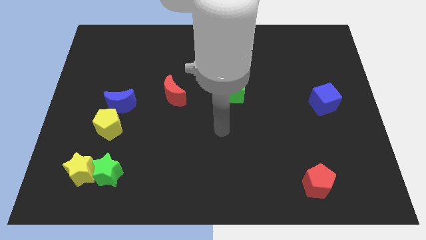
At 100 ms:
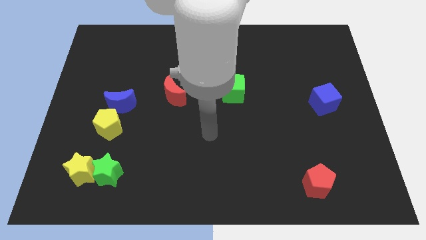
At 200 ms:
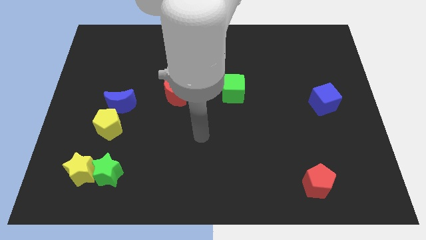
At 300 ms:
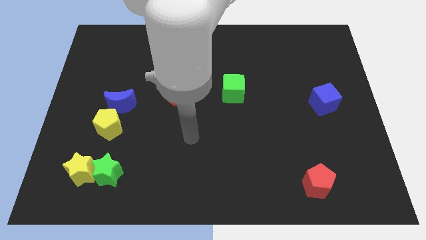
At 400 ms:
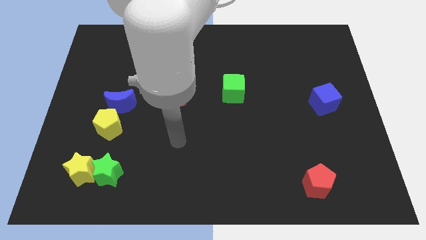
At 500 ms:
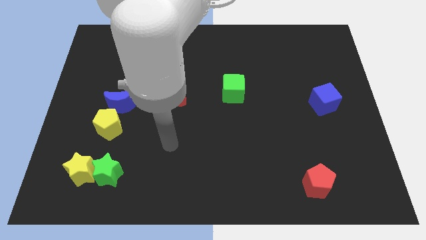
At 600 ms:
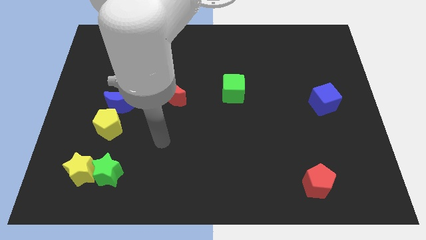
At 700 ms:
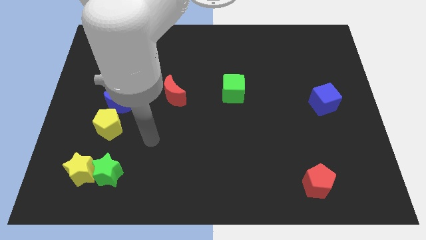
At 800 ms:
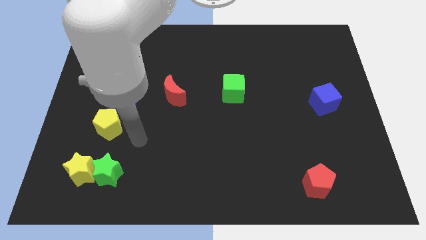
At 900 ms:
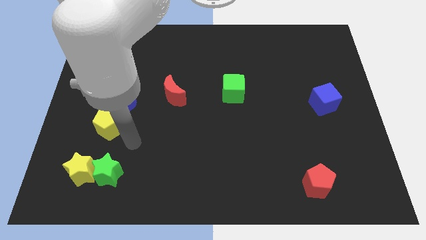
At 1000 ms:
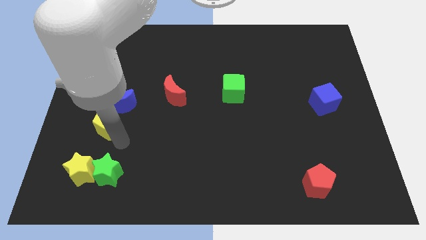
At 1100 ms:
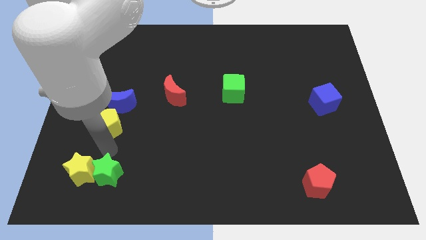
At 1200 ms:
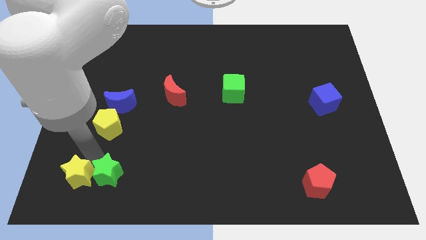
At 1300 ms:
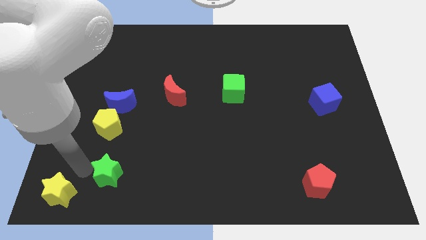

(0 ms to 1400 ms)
pull the green star apart from the yellow star

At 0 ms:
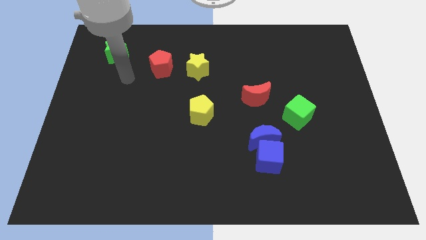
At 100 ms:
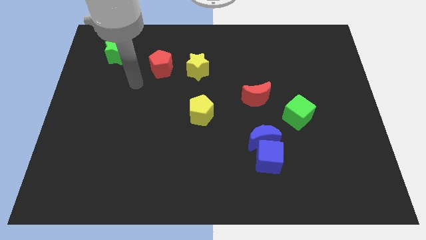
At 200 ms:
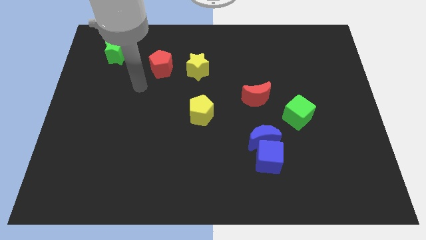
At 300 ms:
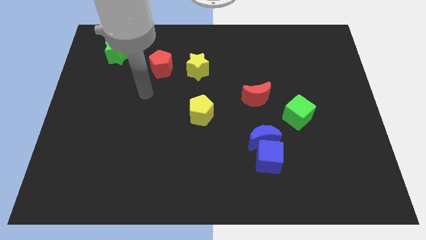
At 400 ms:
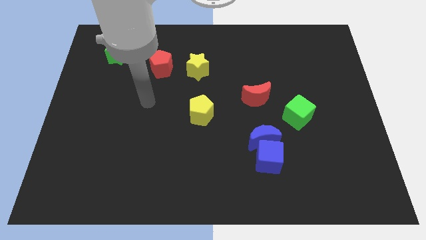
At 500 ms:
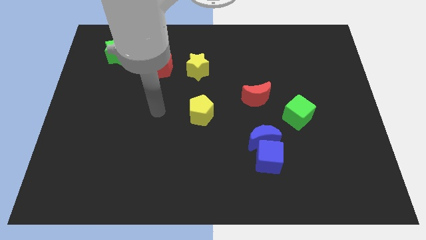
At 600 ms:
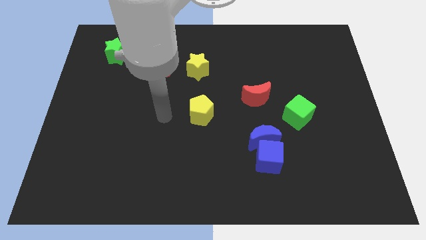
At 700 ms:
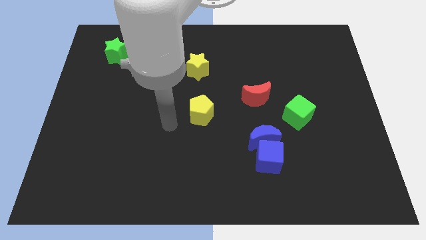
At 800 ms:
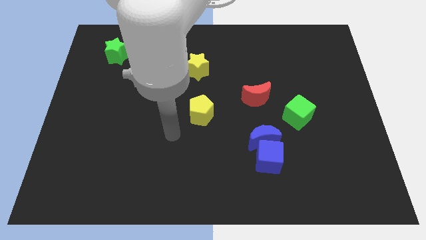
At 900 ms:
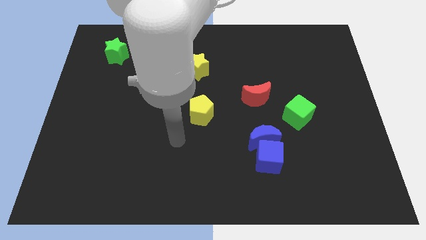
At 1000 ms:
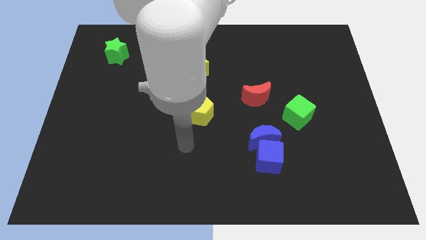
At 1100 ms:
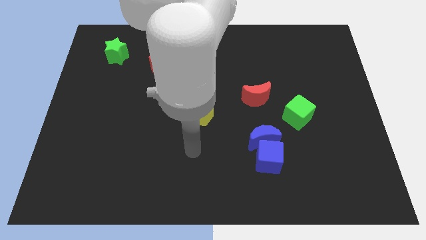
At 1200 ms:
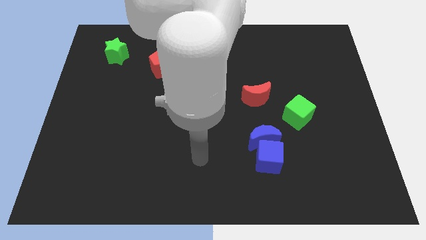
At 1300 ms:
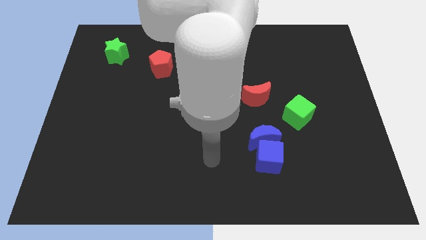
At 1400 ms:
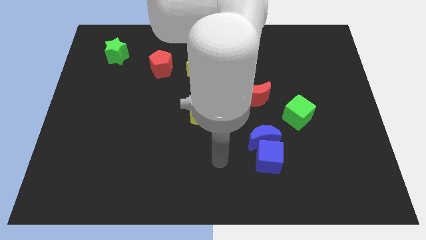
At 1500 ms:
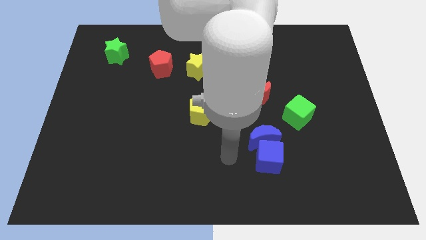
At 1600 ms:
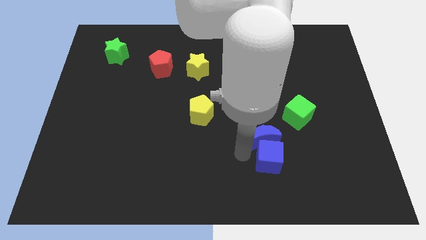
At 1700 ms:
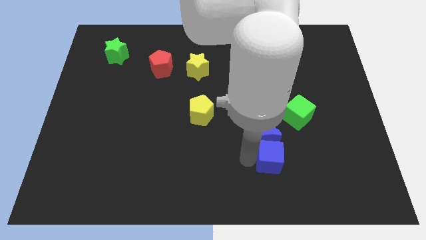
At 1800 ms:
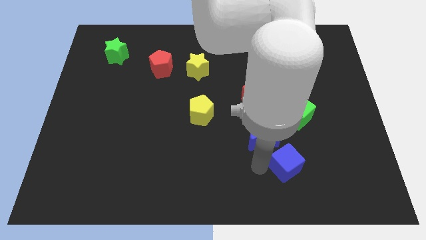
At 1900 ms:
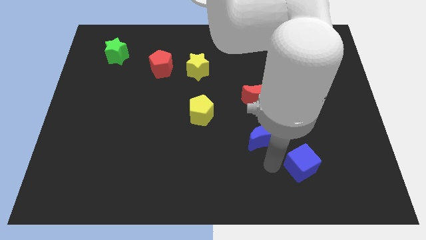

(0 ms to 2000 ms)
move the blue moon away from the blue cube

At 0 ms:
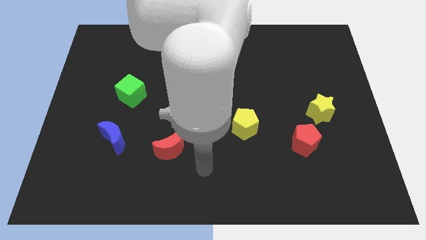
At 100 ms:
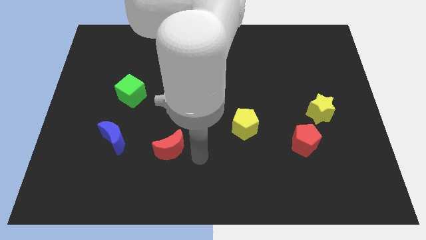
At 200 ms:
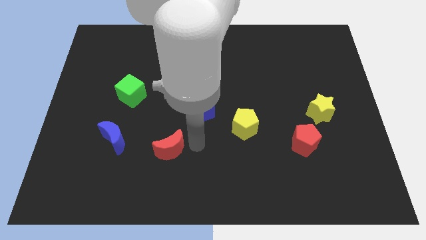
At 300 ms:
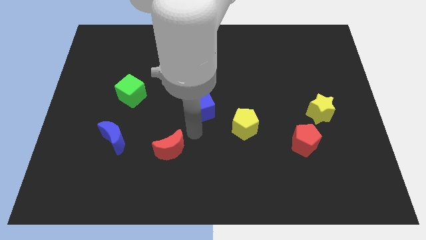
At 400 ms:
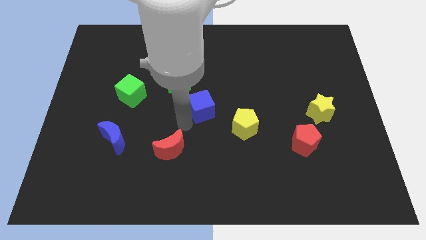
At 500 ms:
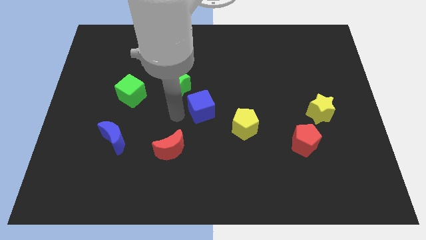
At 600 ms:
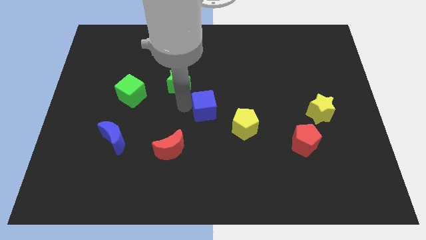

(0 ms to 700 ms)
pull the blue cube apart from the green star

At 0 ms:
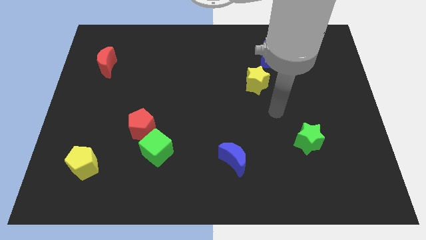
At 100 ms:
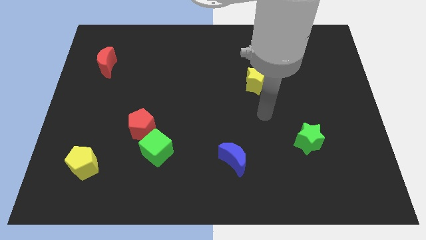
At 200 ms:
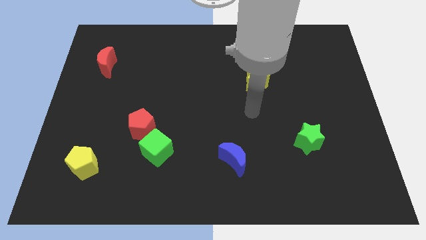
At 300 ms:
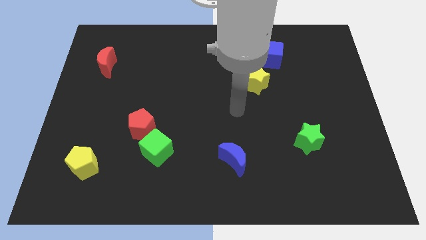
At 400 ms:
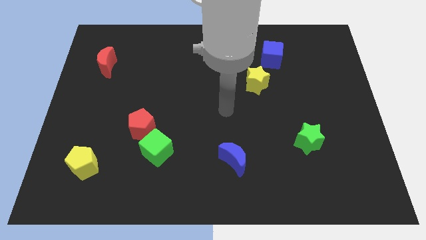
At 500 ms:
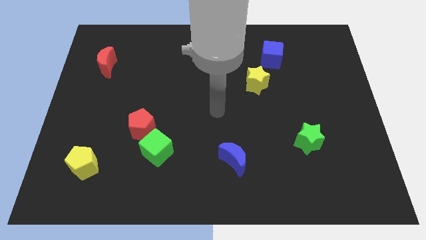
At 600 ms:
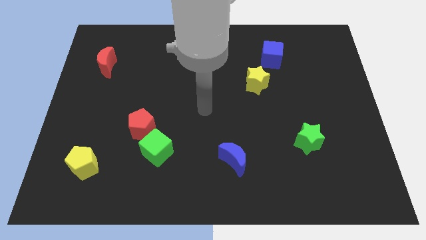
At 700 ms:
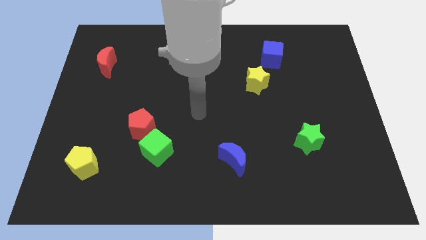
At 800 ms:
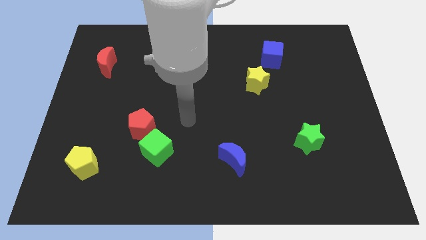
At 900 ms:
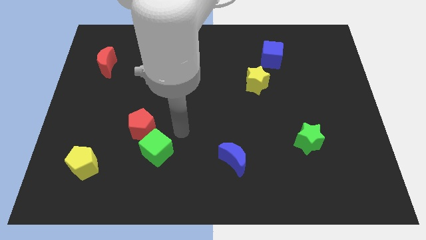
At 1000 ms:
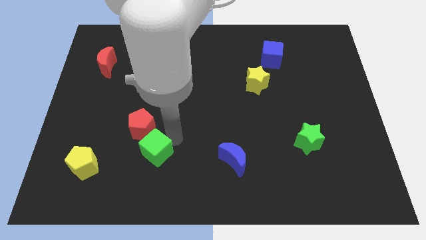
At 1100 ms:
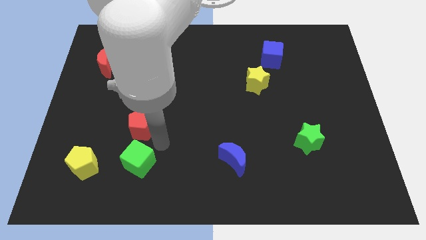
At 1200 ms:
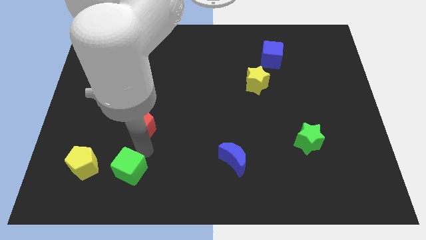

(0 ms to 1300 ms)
pull the red pentagon apart from the green cube

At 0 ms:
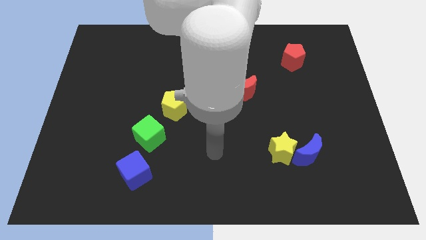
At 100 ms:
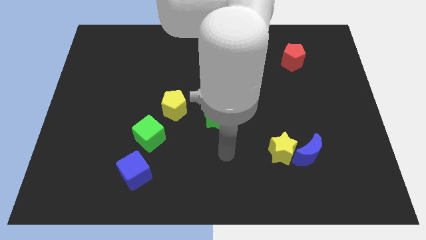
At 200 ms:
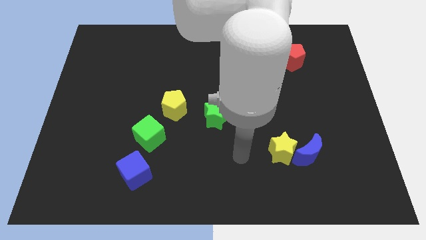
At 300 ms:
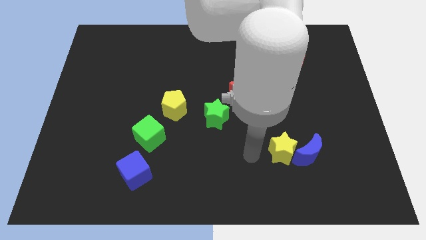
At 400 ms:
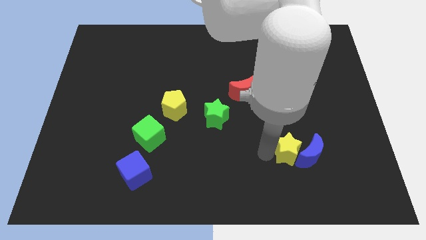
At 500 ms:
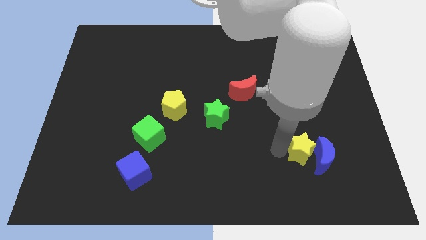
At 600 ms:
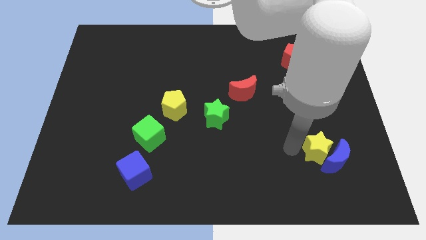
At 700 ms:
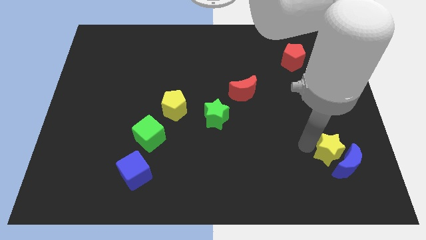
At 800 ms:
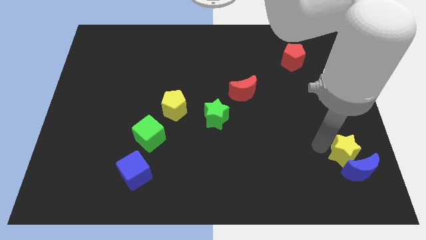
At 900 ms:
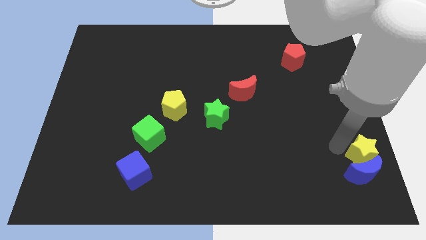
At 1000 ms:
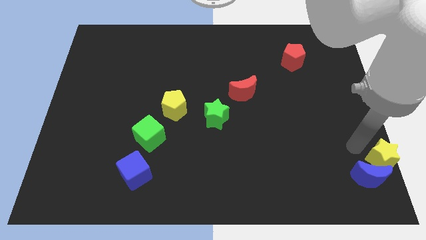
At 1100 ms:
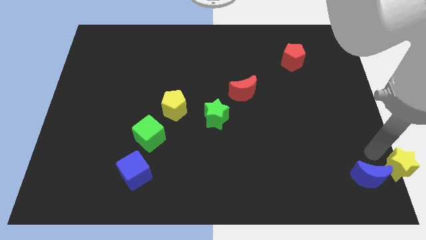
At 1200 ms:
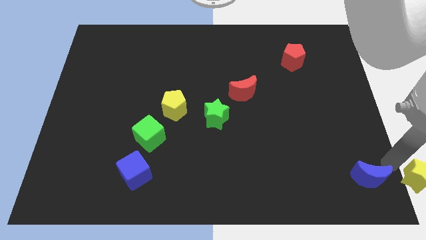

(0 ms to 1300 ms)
move the blue moon away from the yellow star

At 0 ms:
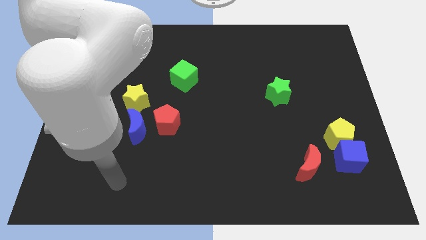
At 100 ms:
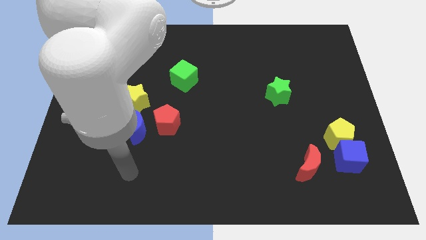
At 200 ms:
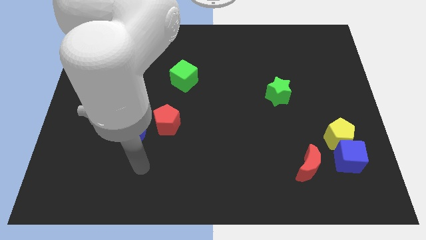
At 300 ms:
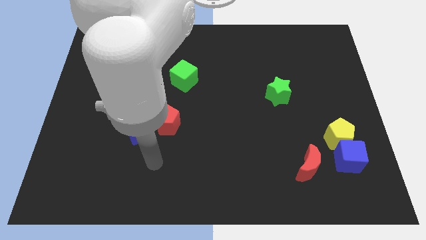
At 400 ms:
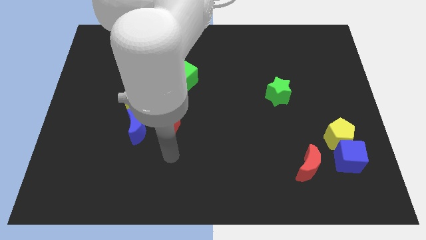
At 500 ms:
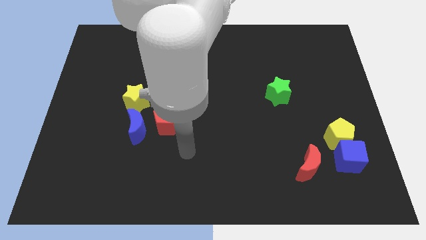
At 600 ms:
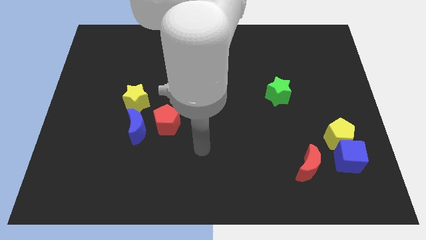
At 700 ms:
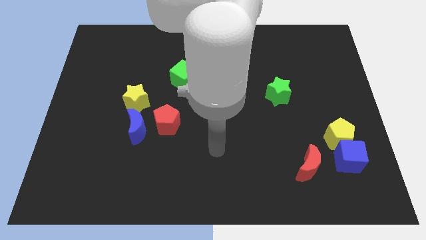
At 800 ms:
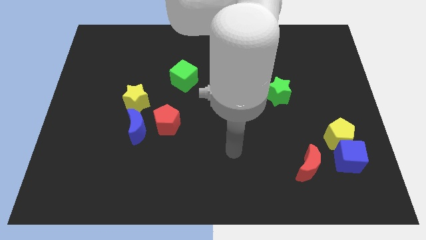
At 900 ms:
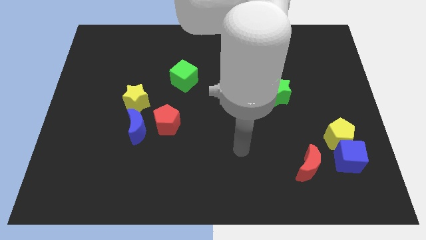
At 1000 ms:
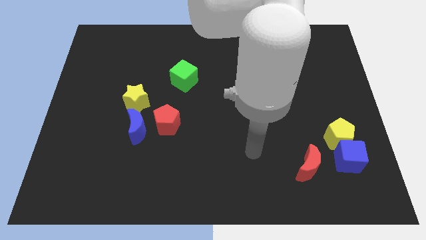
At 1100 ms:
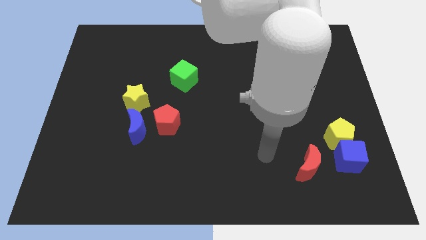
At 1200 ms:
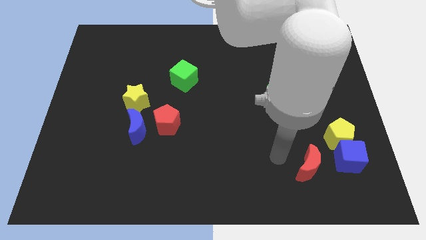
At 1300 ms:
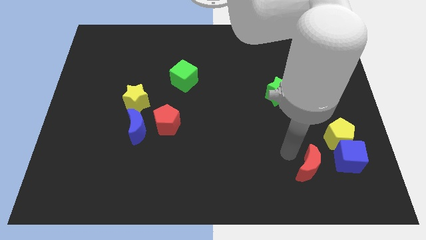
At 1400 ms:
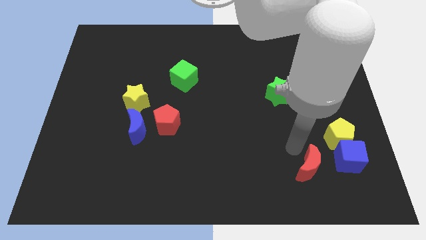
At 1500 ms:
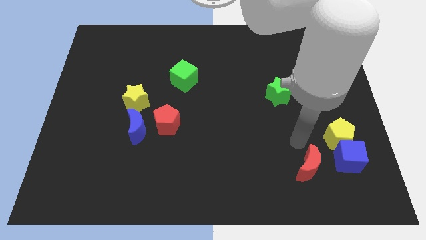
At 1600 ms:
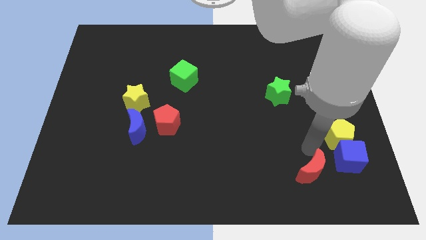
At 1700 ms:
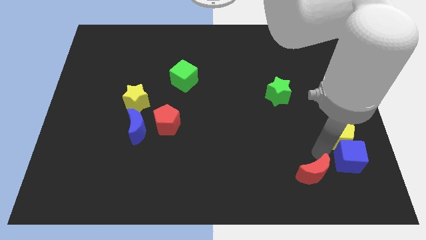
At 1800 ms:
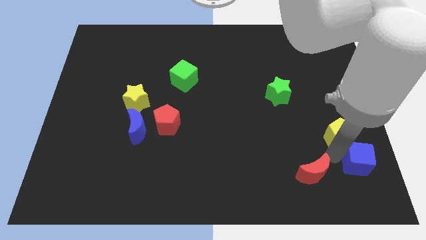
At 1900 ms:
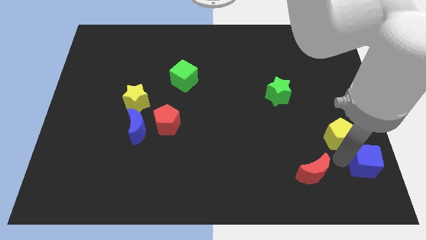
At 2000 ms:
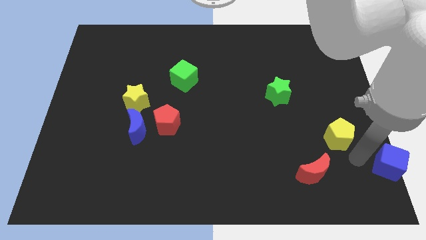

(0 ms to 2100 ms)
separate the yellow pentagon from the blue cube

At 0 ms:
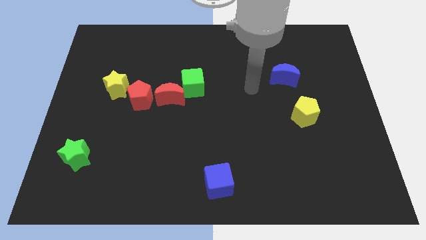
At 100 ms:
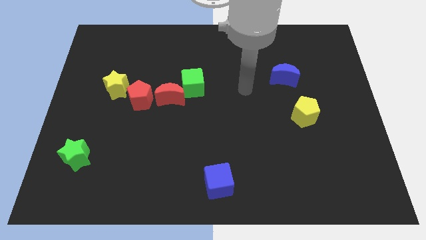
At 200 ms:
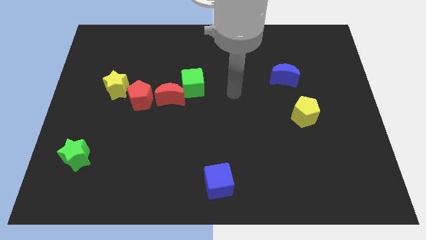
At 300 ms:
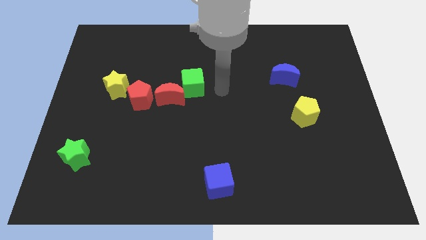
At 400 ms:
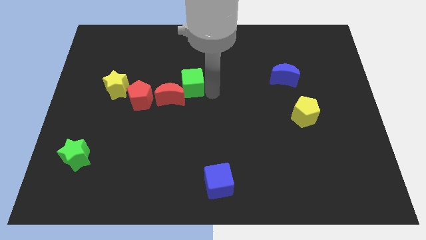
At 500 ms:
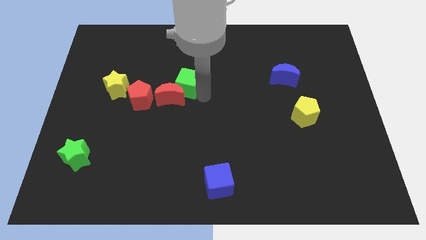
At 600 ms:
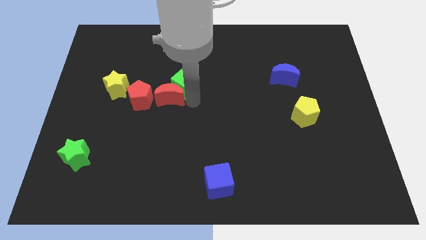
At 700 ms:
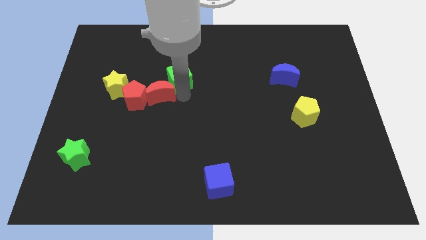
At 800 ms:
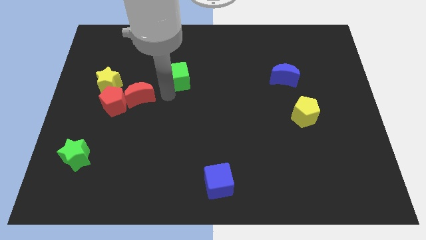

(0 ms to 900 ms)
pull the green cube apart from the red moon
